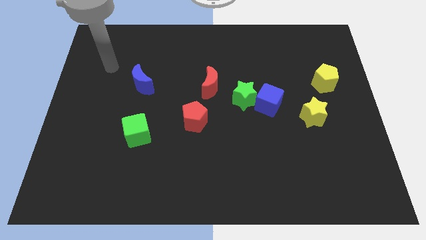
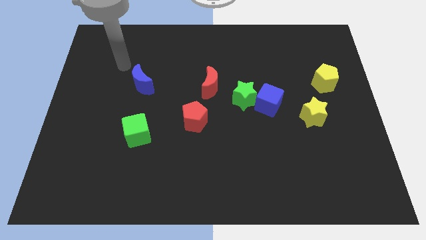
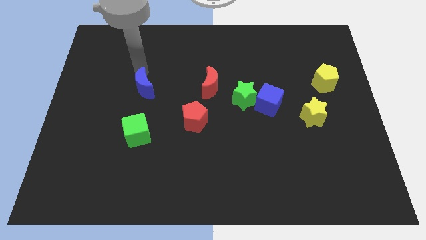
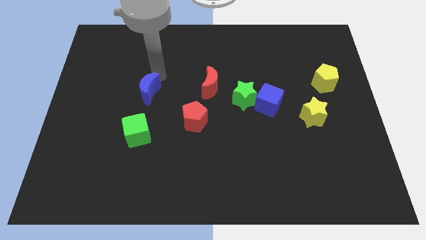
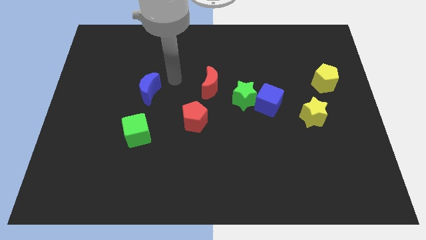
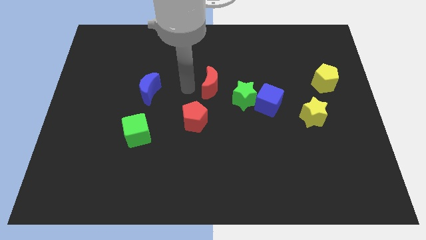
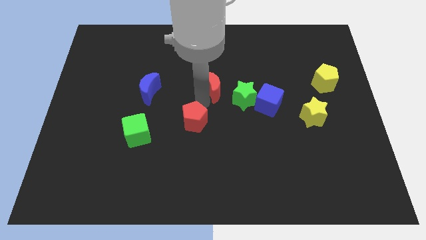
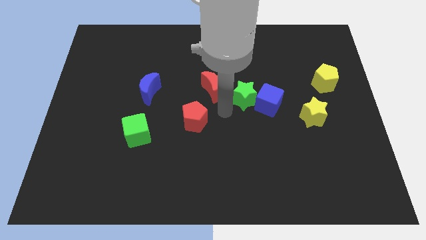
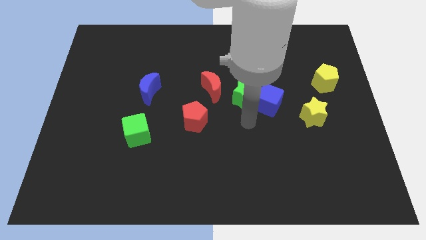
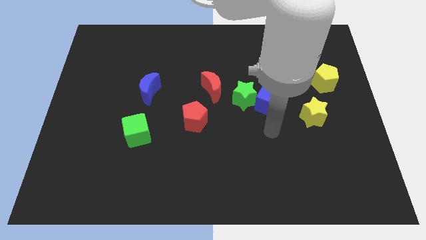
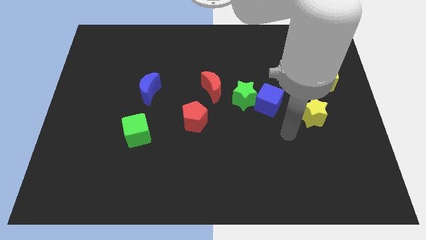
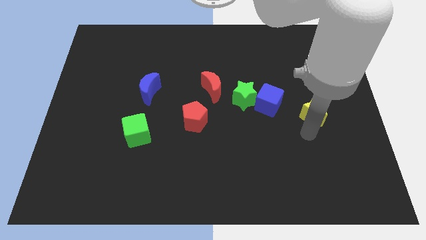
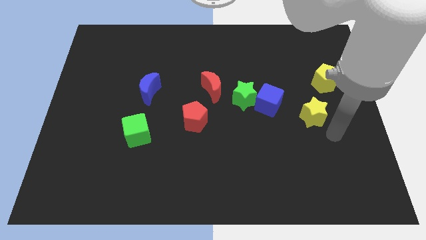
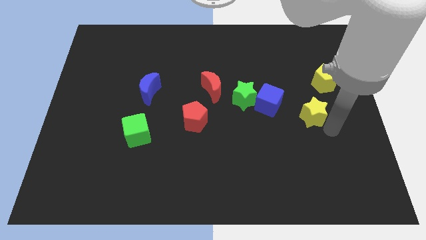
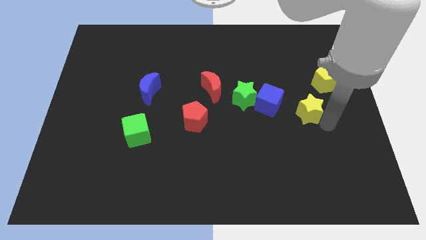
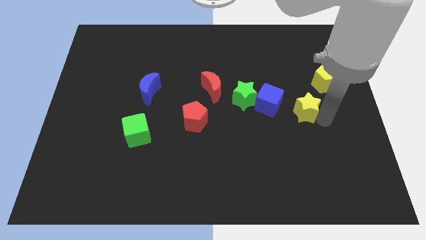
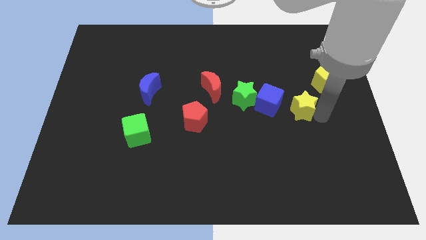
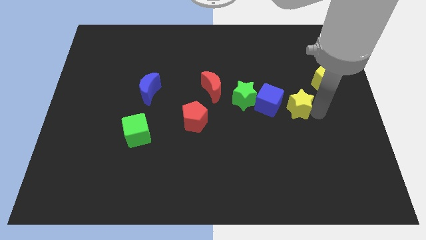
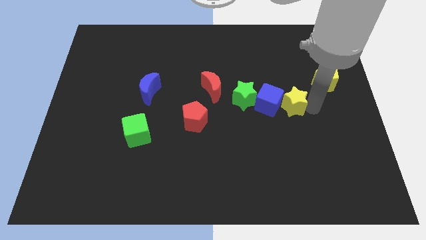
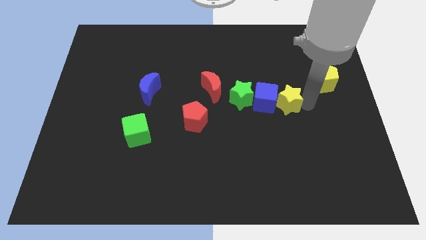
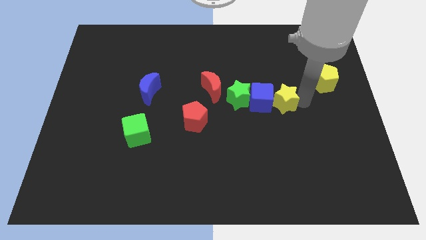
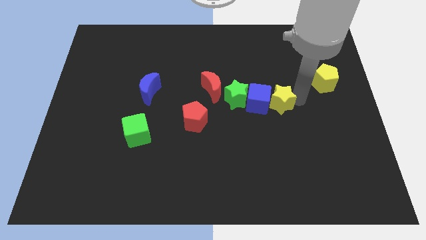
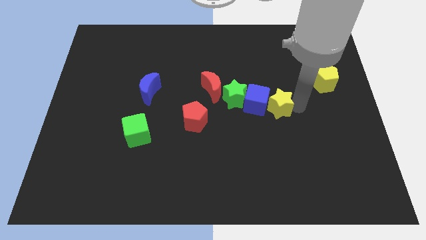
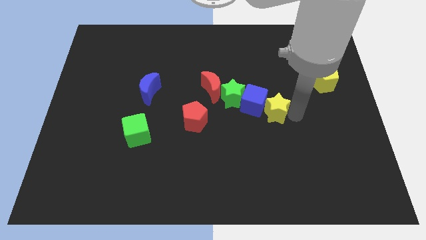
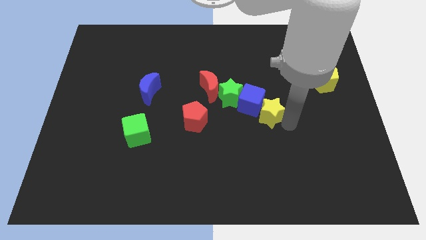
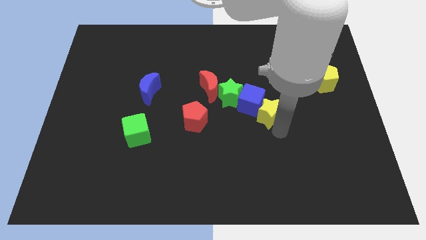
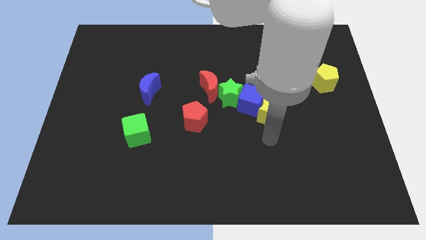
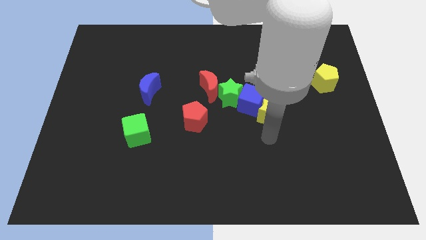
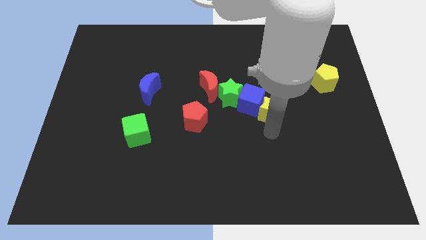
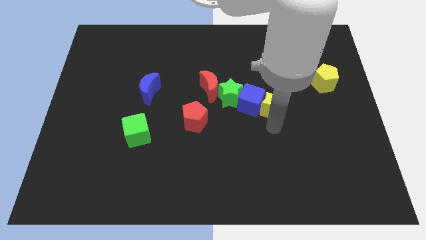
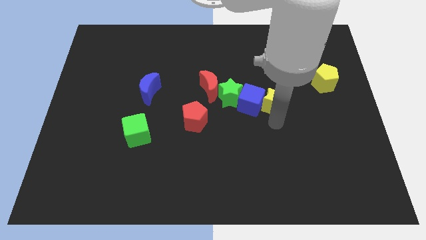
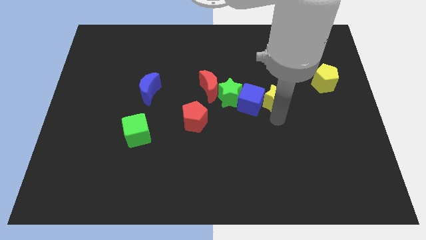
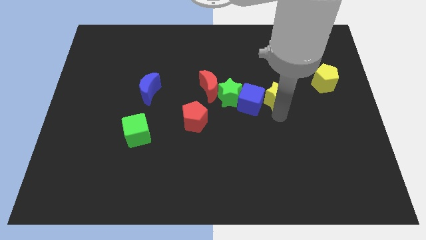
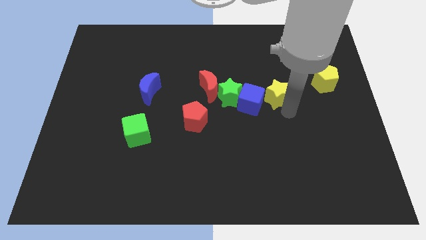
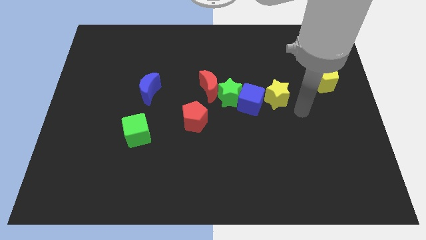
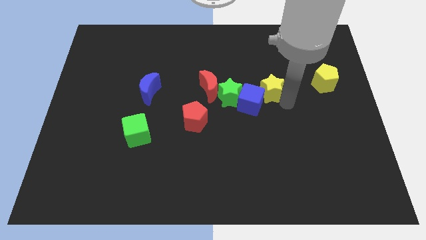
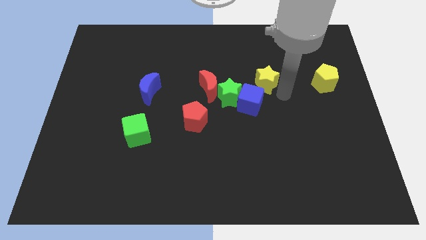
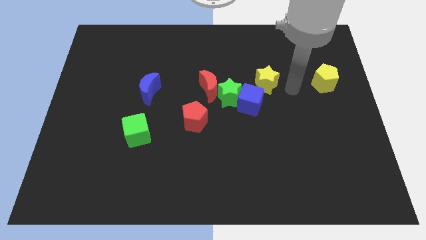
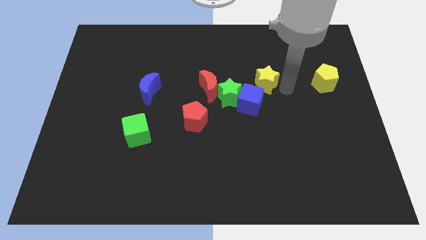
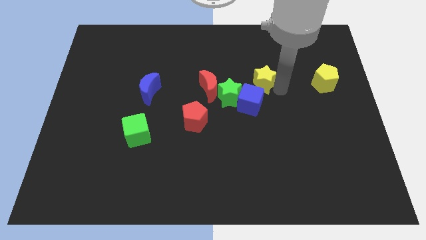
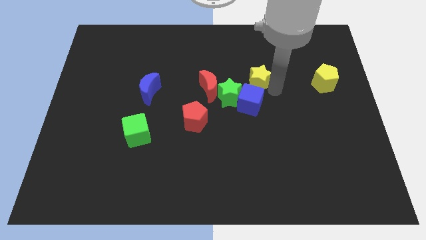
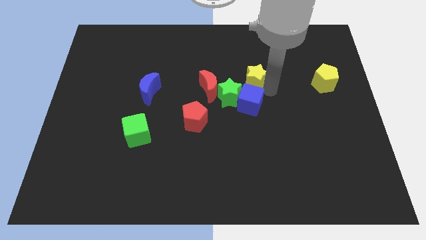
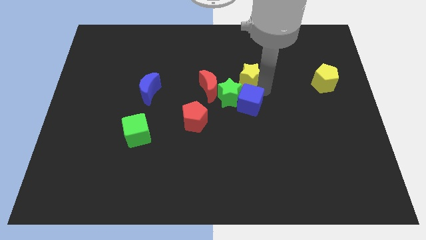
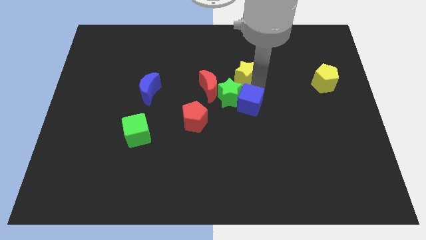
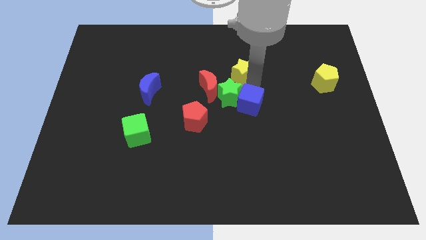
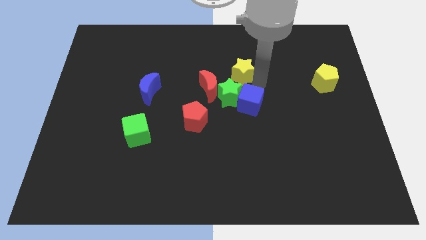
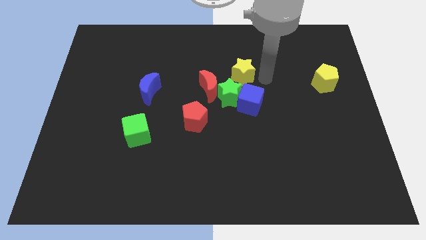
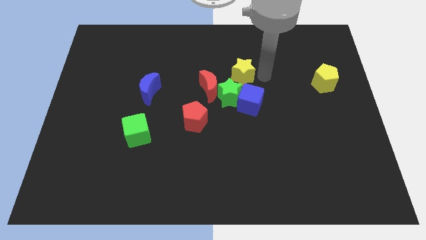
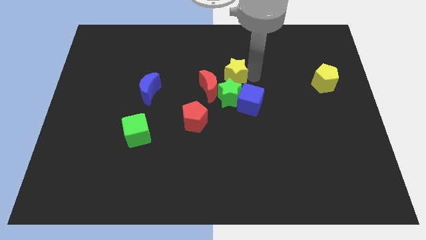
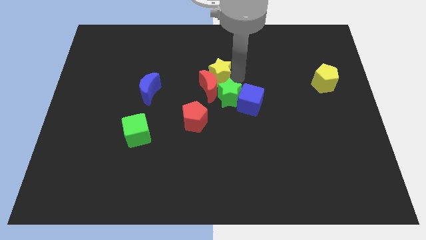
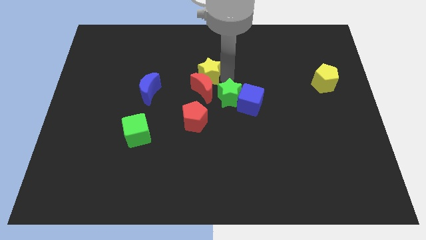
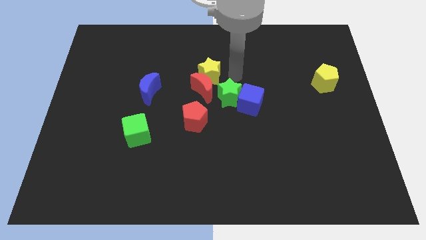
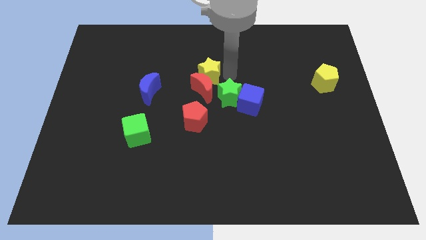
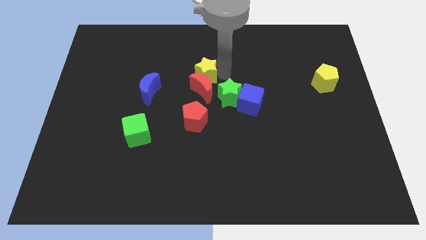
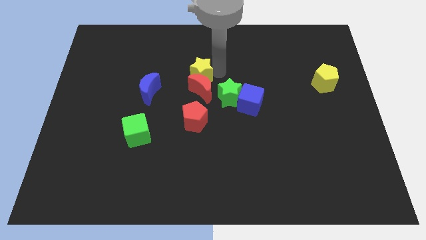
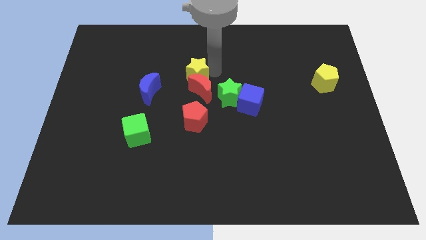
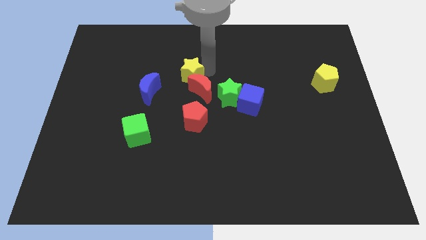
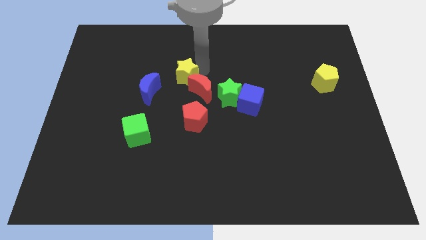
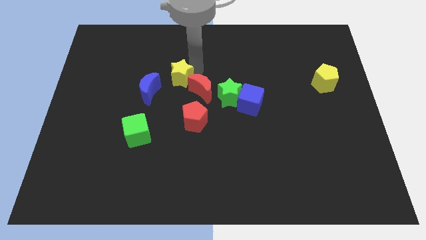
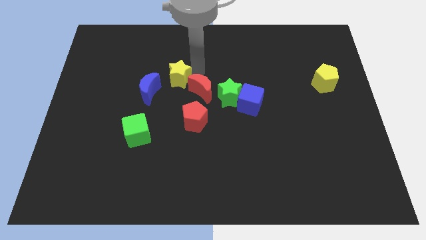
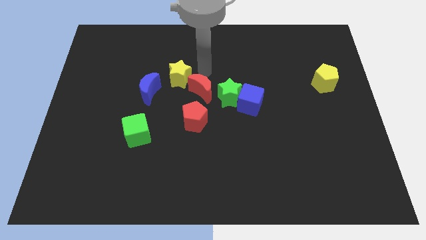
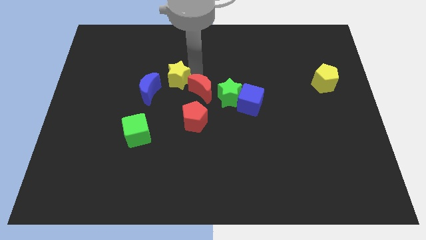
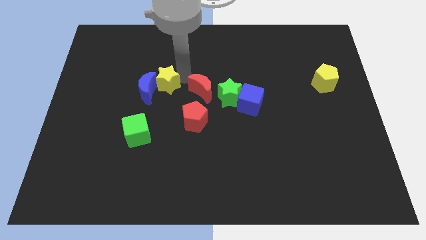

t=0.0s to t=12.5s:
put the yellow star towards the blue moon

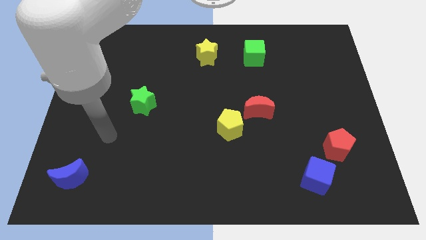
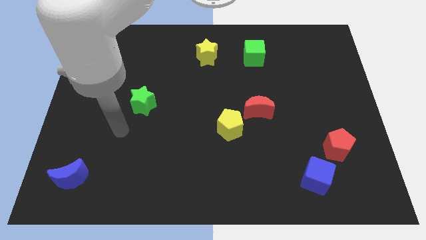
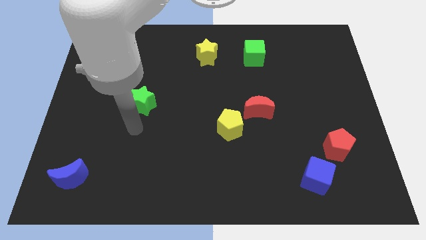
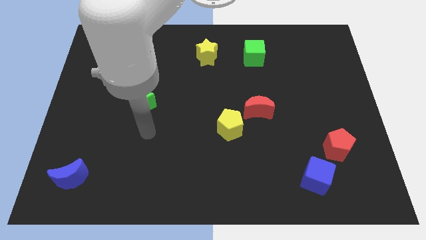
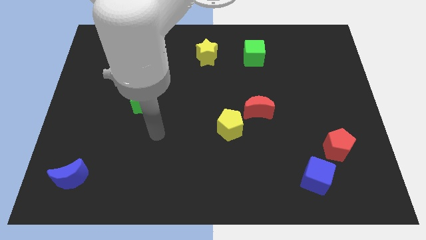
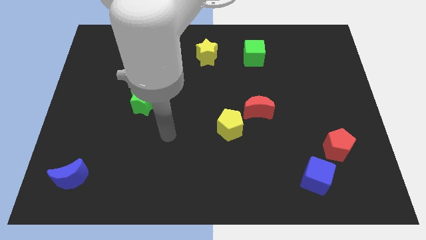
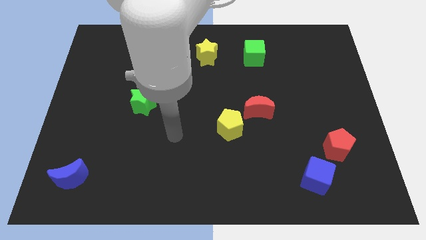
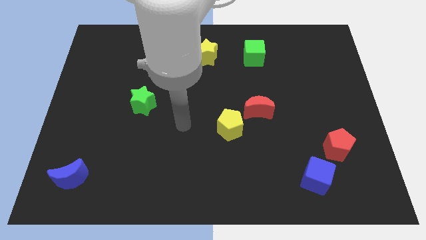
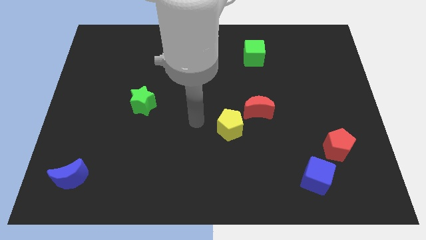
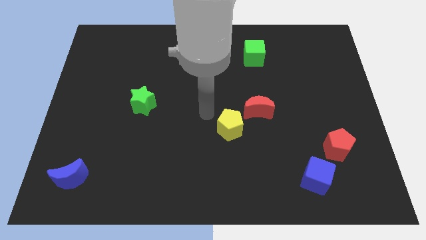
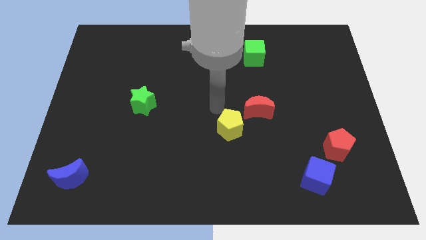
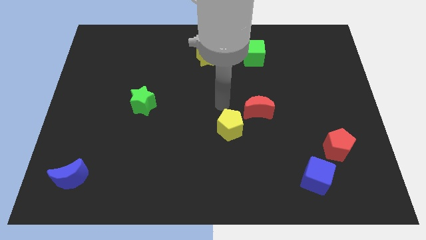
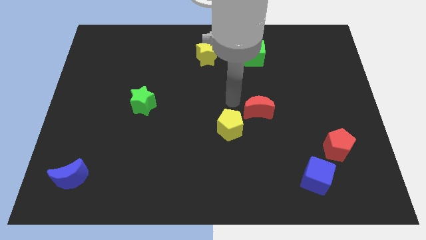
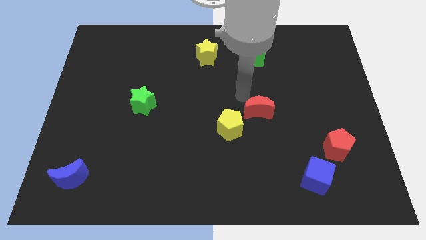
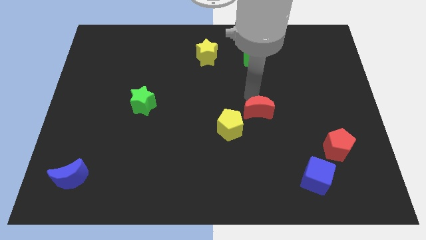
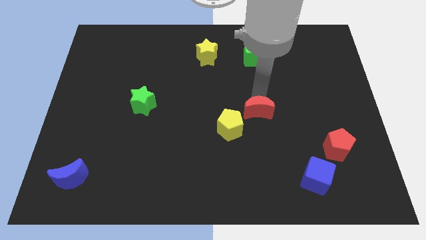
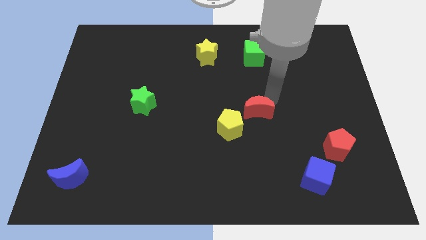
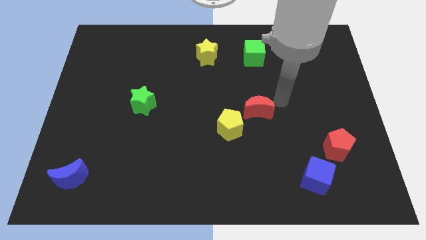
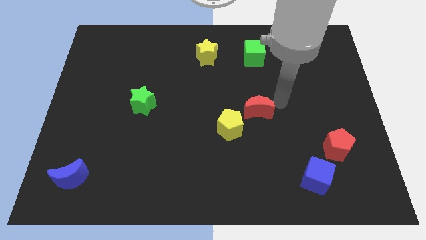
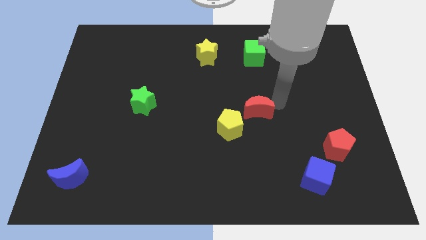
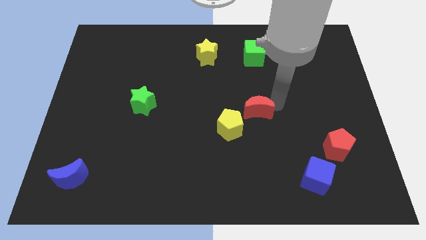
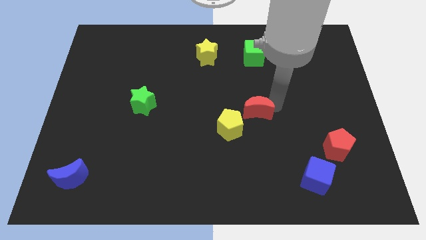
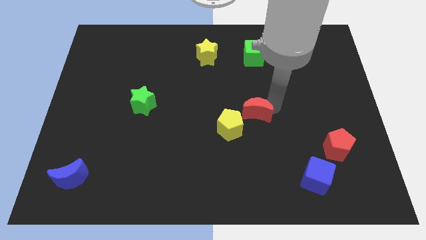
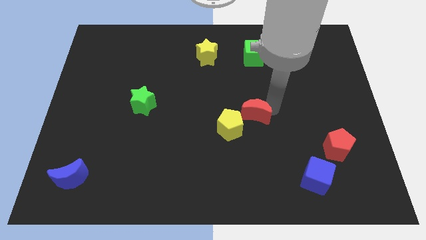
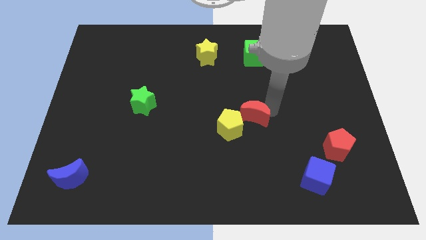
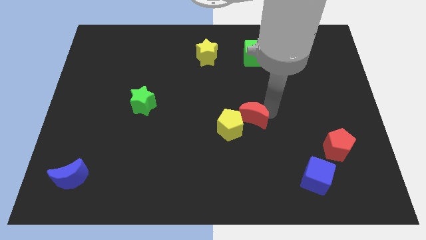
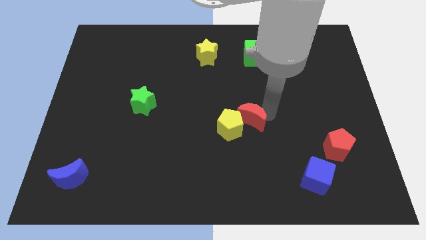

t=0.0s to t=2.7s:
slide the red moon towards the yellow pentagon
